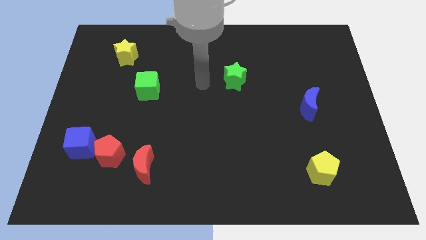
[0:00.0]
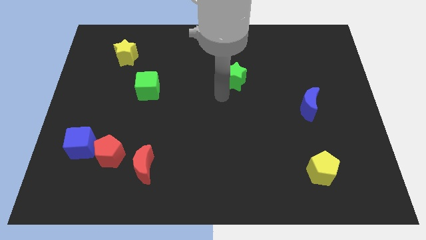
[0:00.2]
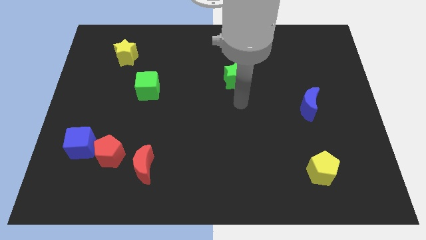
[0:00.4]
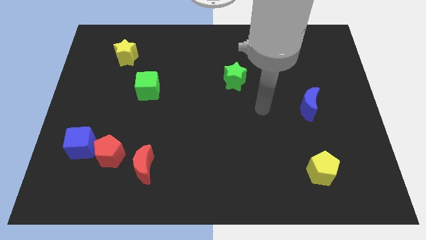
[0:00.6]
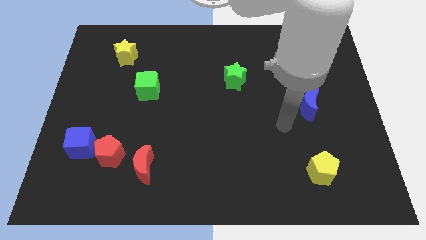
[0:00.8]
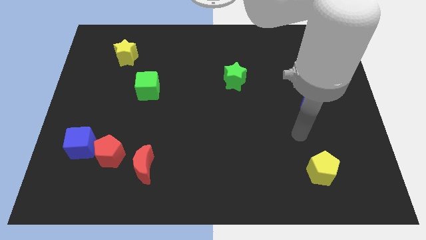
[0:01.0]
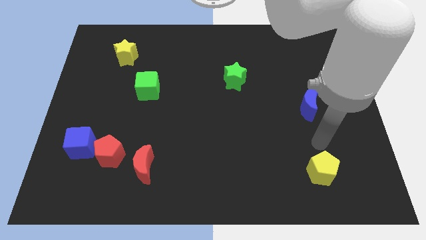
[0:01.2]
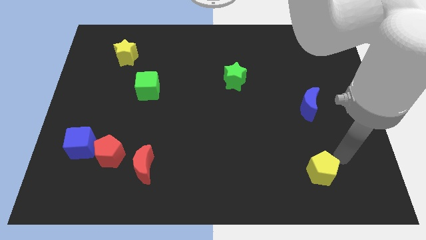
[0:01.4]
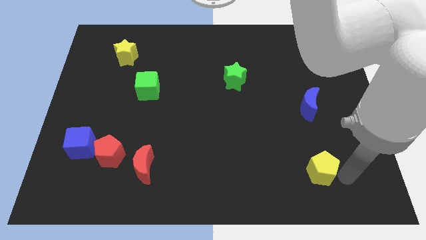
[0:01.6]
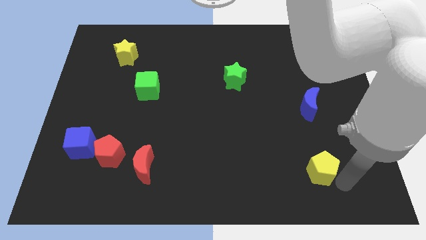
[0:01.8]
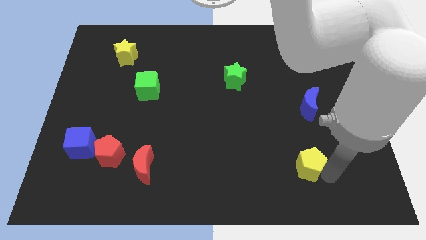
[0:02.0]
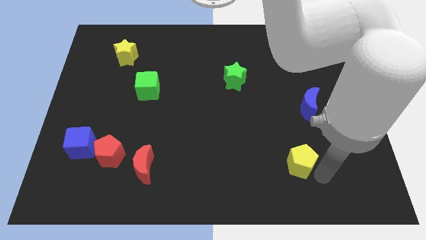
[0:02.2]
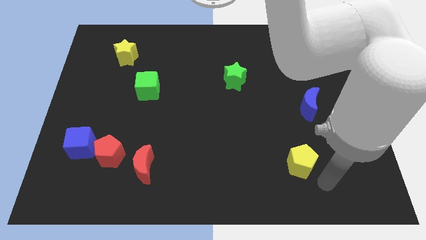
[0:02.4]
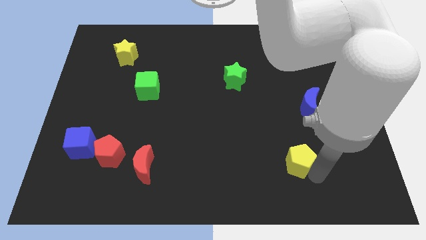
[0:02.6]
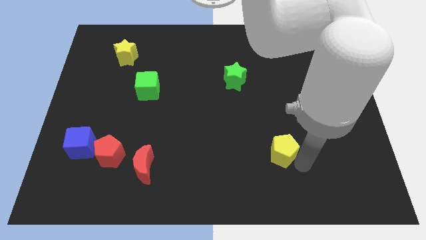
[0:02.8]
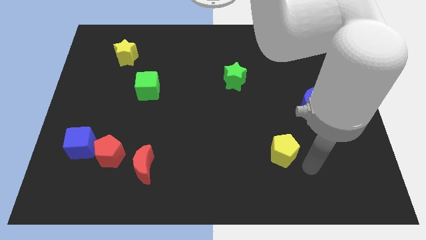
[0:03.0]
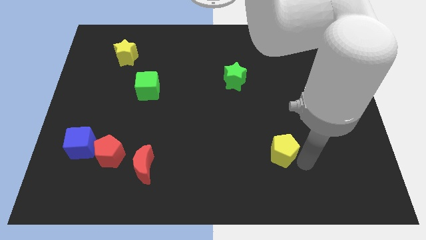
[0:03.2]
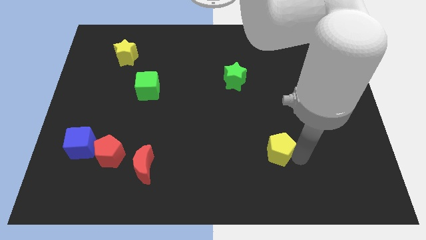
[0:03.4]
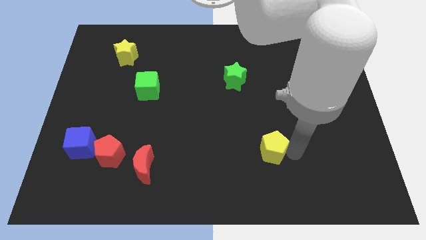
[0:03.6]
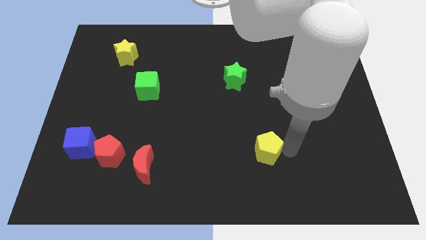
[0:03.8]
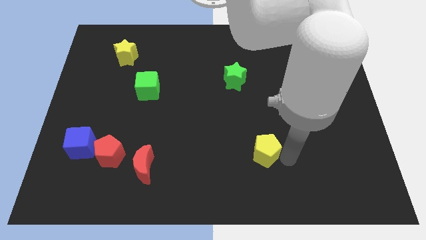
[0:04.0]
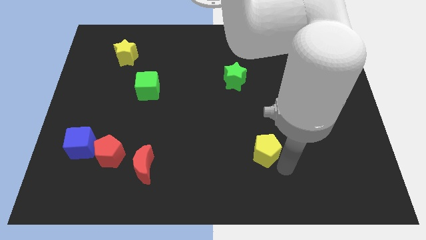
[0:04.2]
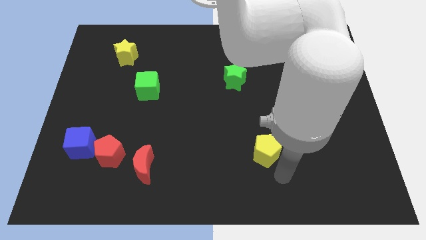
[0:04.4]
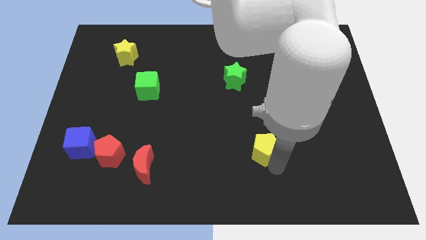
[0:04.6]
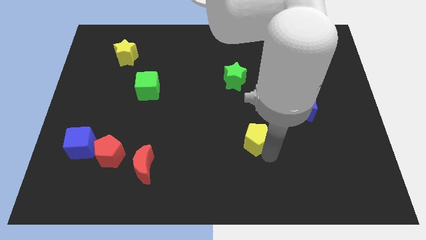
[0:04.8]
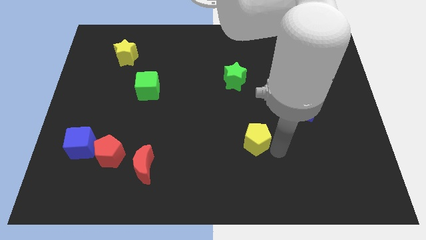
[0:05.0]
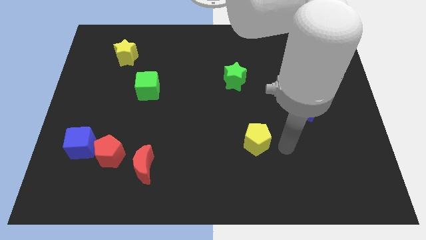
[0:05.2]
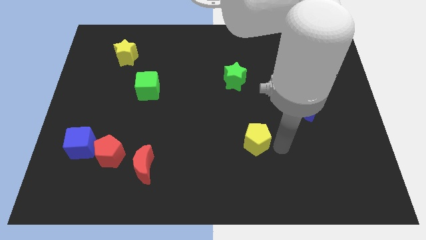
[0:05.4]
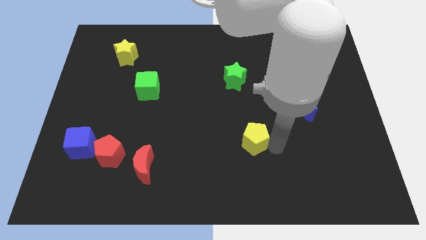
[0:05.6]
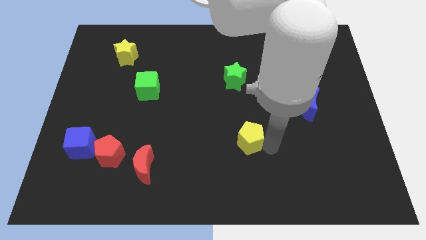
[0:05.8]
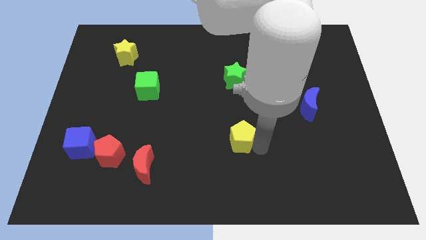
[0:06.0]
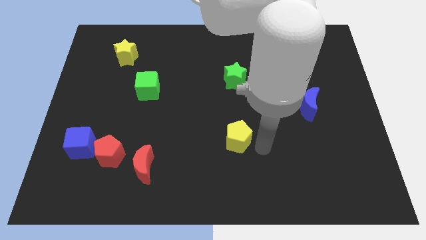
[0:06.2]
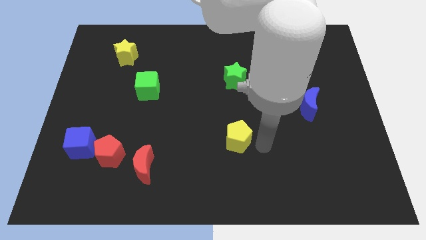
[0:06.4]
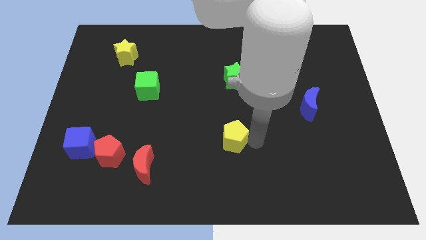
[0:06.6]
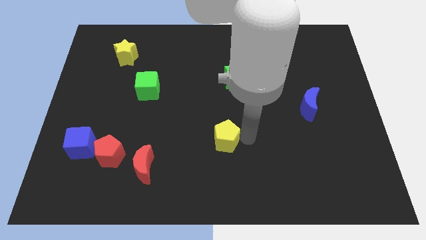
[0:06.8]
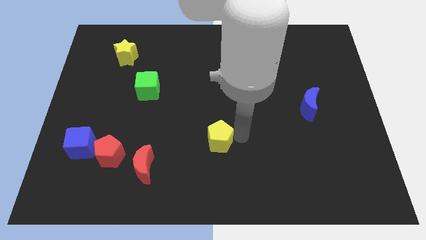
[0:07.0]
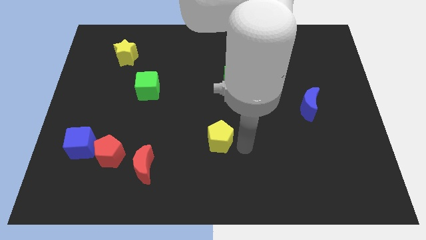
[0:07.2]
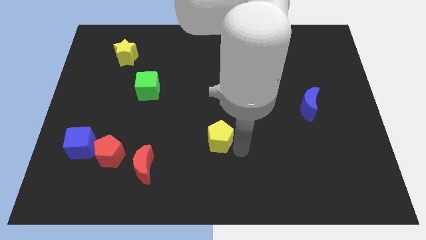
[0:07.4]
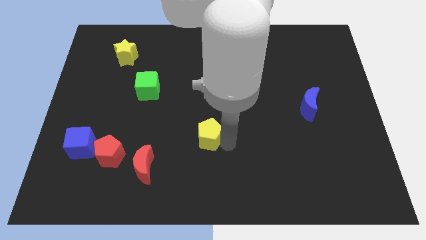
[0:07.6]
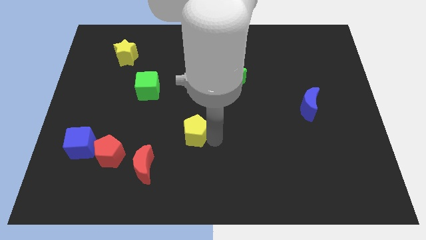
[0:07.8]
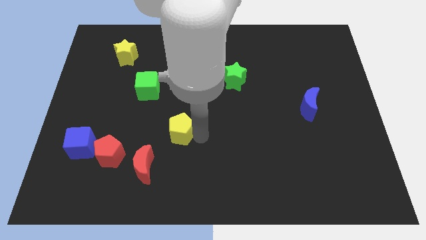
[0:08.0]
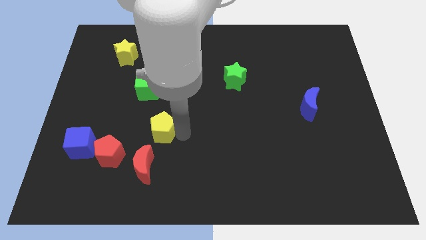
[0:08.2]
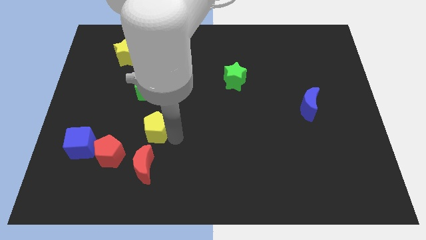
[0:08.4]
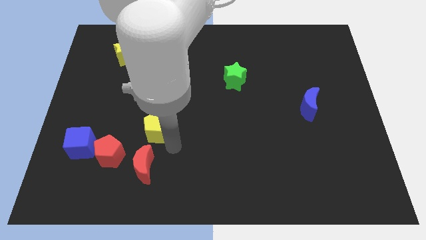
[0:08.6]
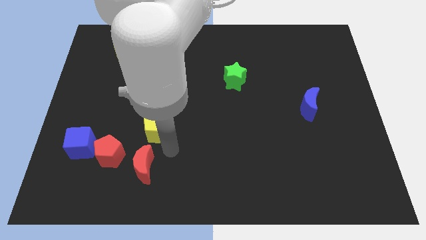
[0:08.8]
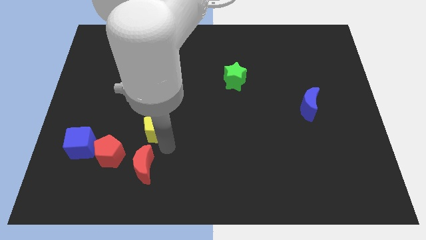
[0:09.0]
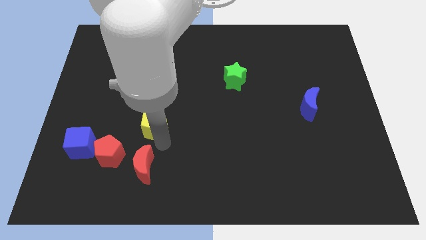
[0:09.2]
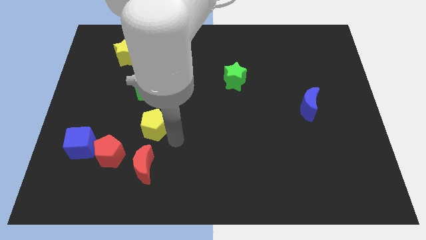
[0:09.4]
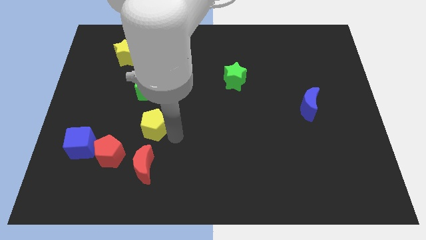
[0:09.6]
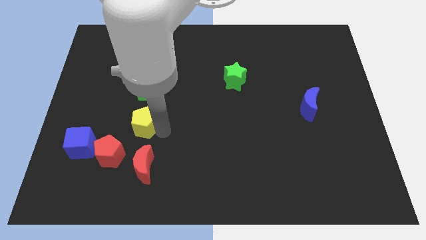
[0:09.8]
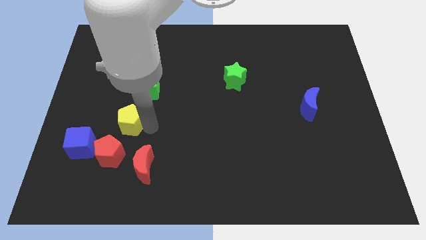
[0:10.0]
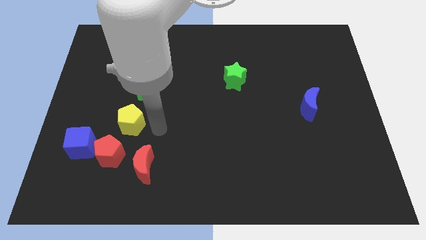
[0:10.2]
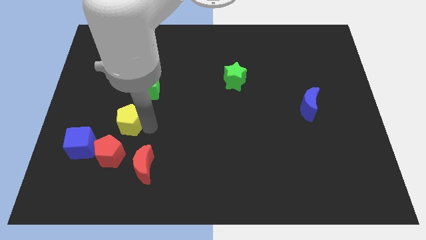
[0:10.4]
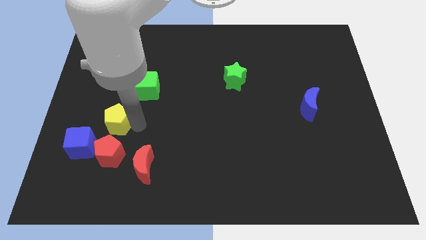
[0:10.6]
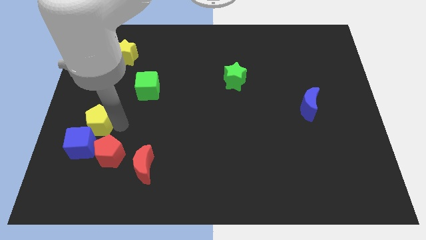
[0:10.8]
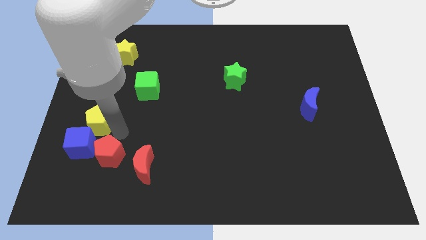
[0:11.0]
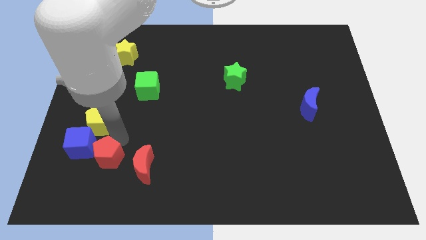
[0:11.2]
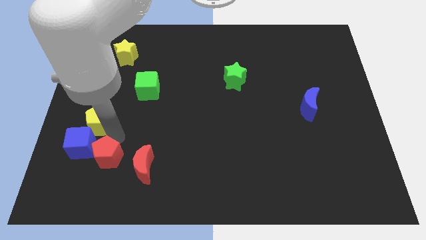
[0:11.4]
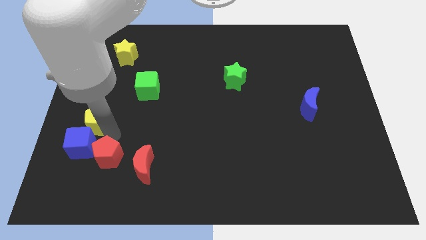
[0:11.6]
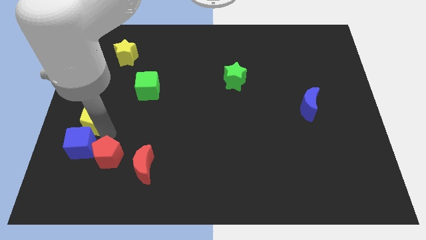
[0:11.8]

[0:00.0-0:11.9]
put the yellow pentagon to the left side

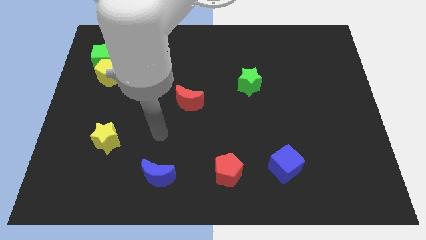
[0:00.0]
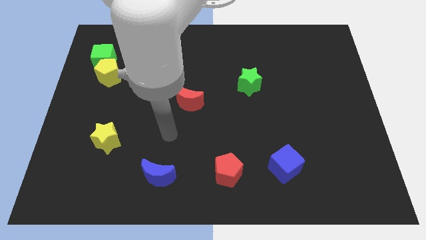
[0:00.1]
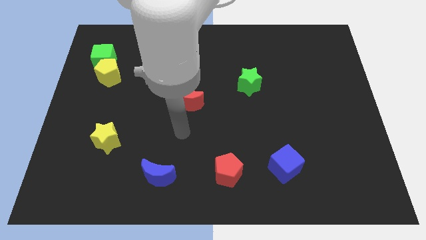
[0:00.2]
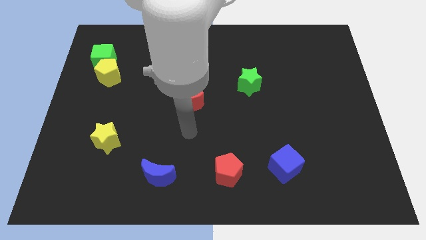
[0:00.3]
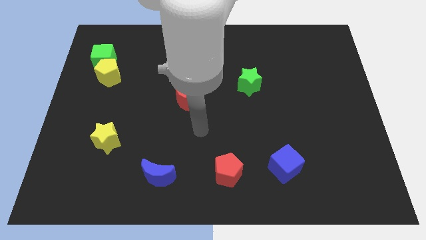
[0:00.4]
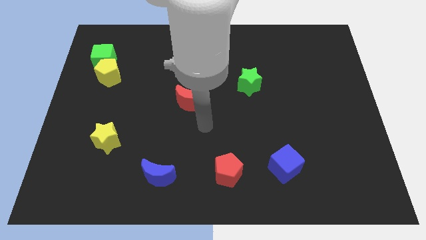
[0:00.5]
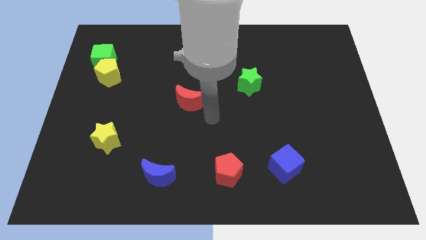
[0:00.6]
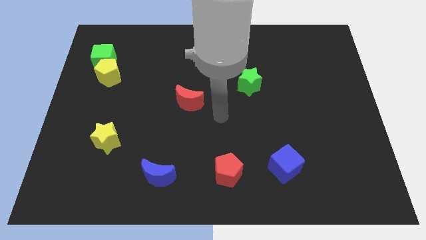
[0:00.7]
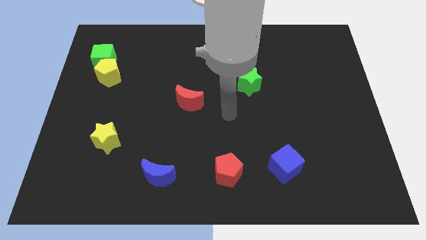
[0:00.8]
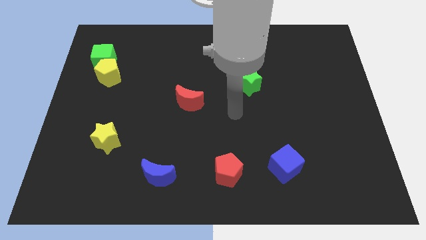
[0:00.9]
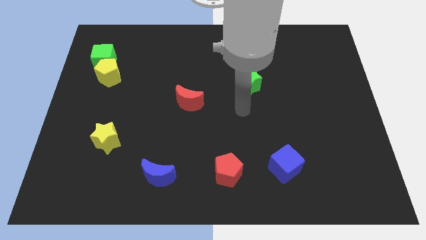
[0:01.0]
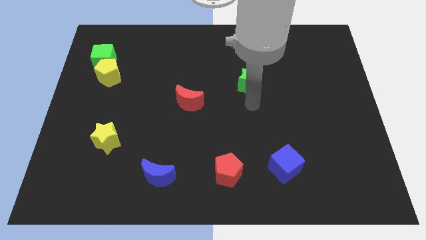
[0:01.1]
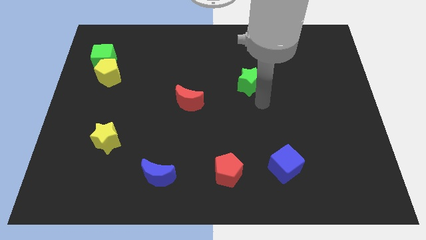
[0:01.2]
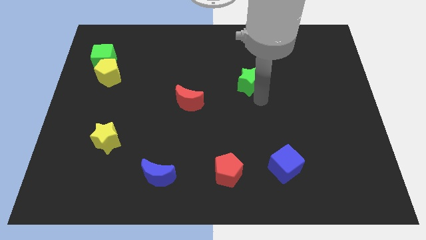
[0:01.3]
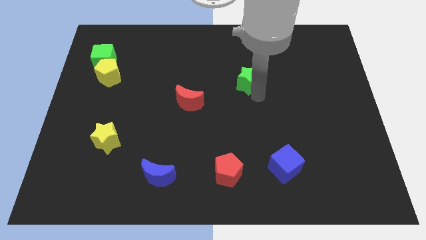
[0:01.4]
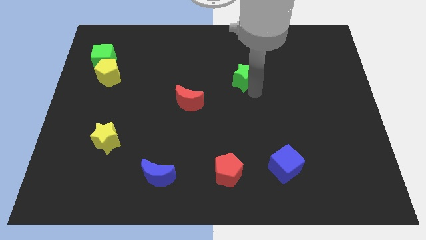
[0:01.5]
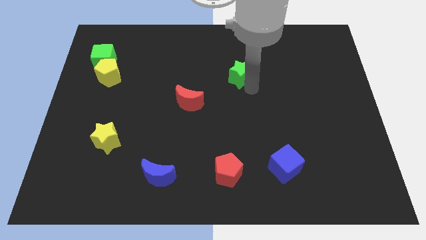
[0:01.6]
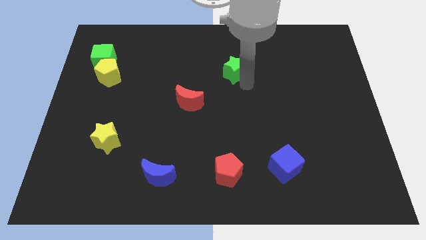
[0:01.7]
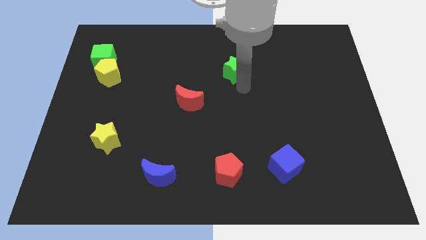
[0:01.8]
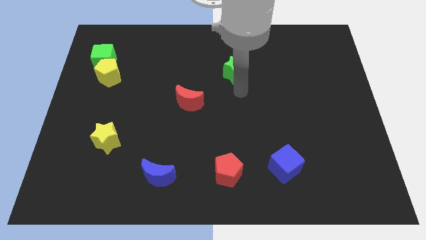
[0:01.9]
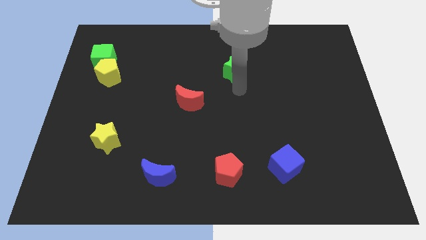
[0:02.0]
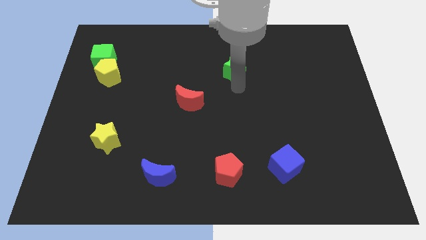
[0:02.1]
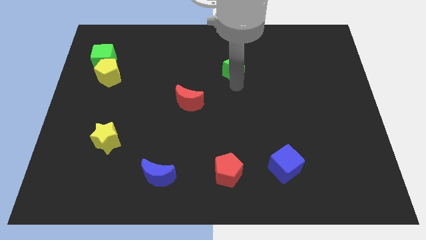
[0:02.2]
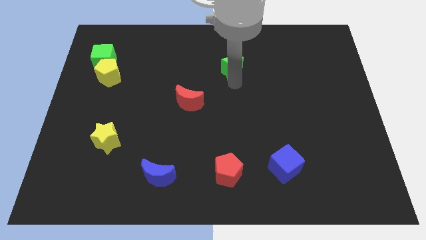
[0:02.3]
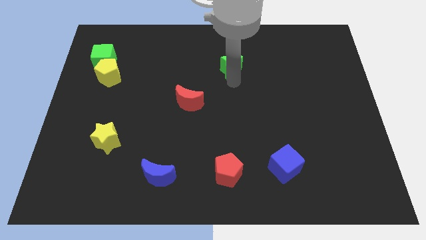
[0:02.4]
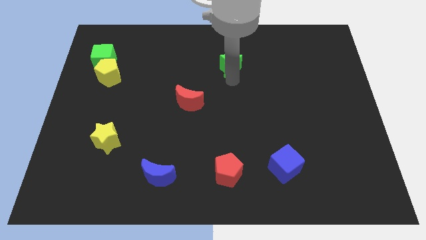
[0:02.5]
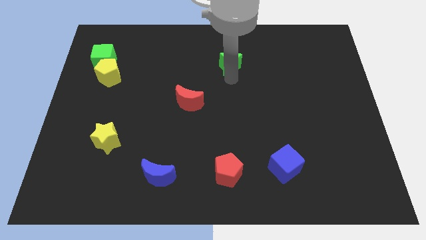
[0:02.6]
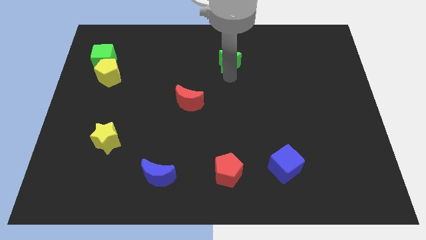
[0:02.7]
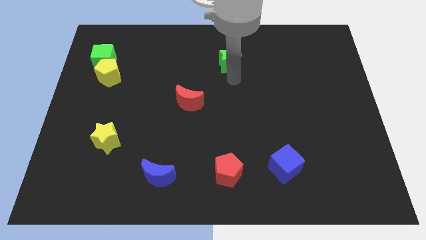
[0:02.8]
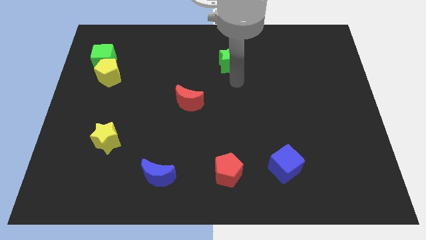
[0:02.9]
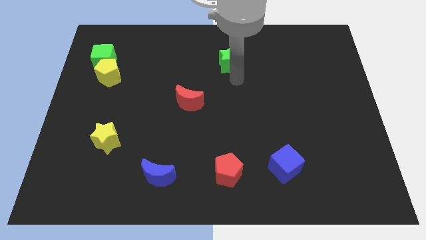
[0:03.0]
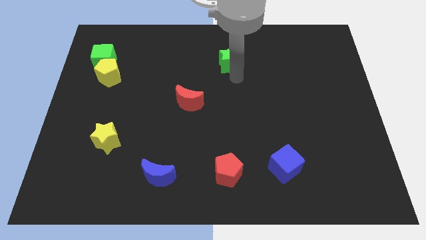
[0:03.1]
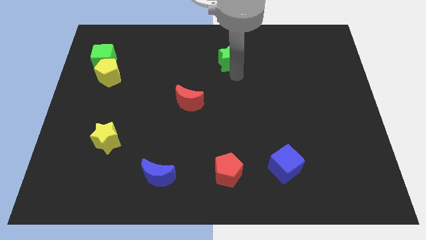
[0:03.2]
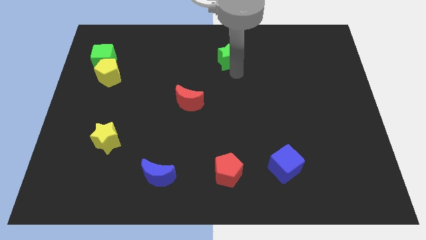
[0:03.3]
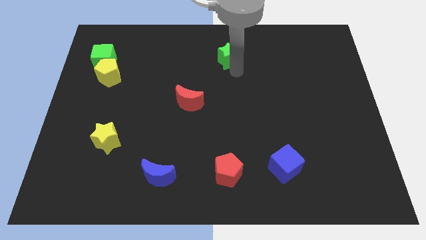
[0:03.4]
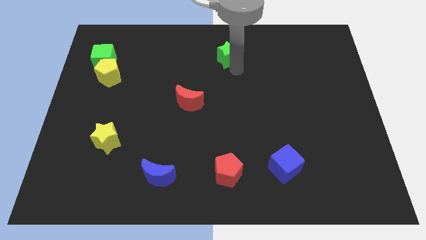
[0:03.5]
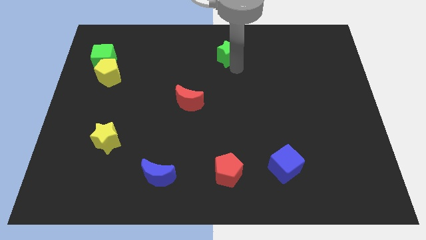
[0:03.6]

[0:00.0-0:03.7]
put the green star to the towards your base
